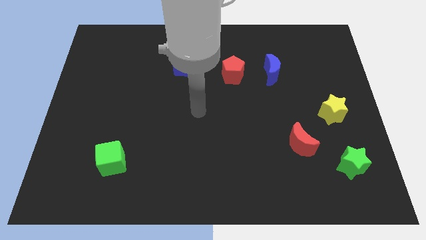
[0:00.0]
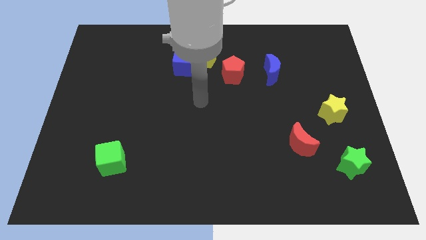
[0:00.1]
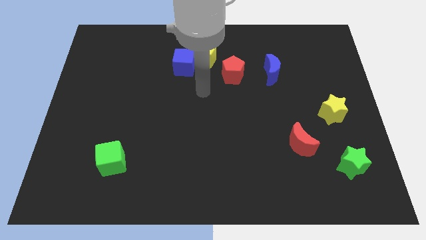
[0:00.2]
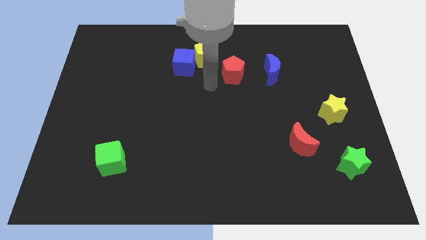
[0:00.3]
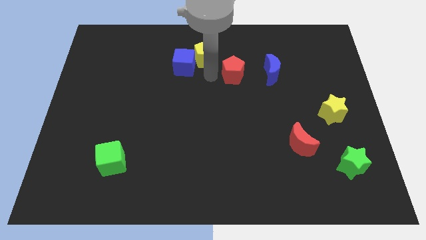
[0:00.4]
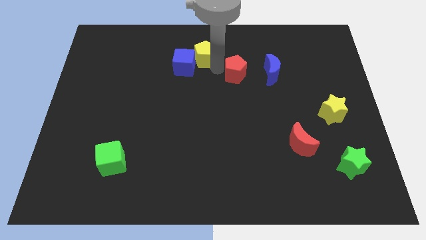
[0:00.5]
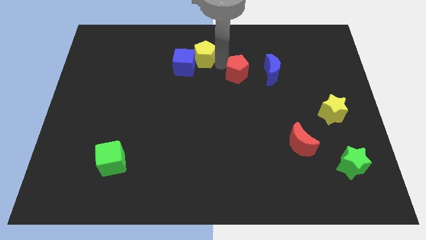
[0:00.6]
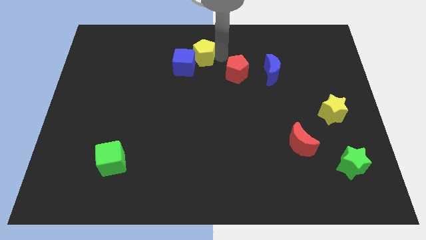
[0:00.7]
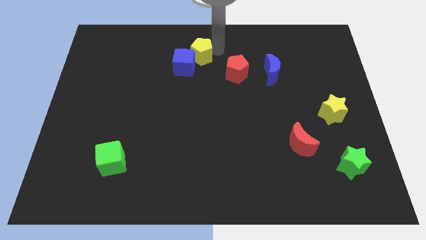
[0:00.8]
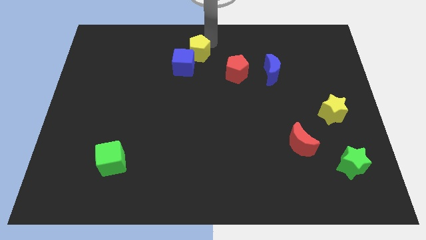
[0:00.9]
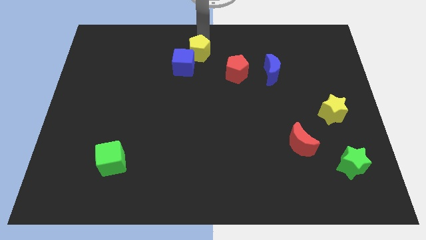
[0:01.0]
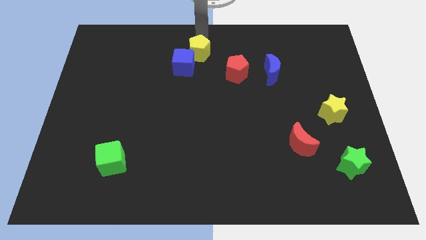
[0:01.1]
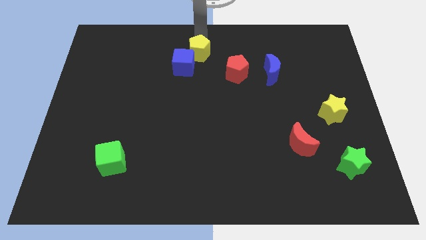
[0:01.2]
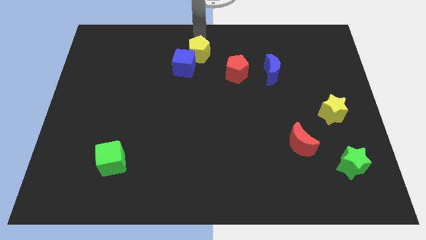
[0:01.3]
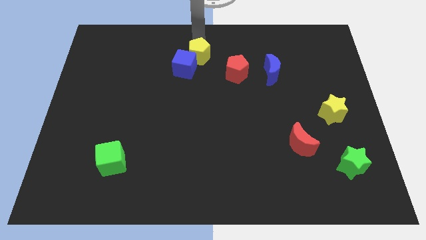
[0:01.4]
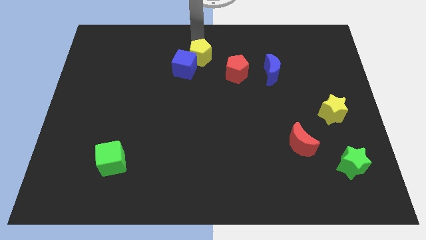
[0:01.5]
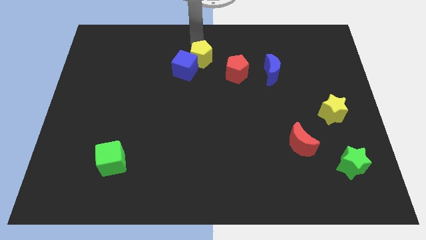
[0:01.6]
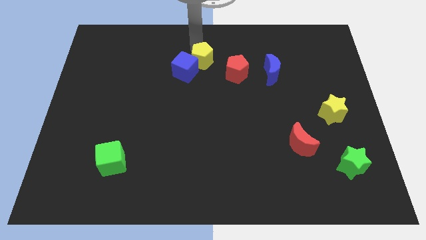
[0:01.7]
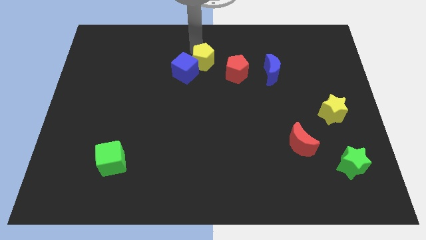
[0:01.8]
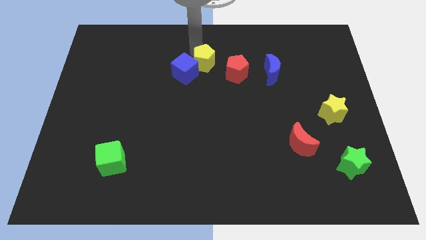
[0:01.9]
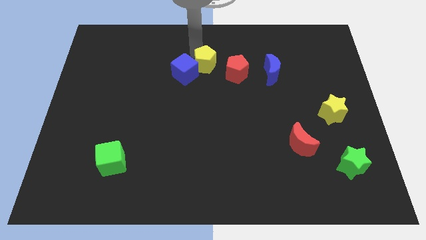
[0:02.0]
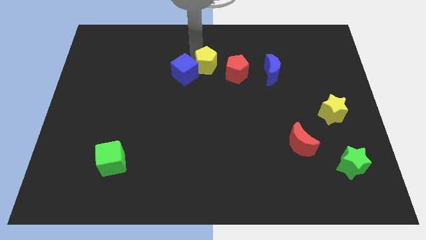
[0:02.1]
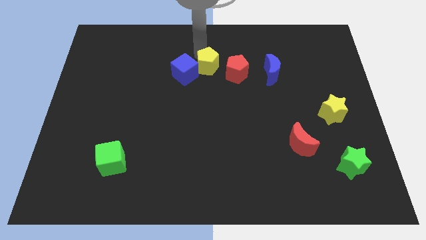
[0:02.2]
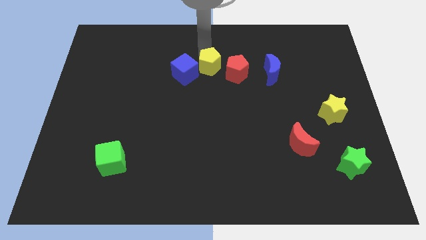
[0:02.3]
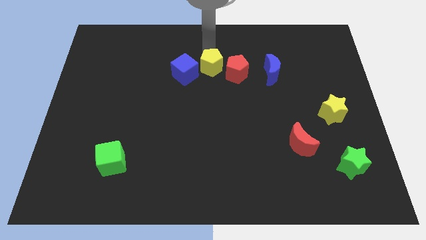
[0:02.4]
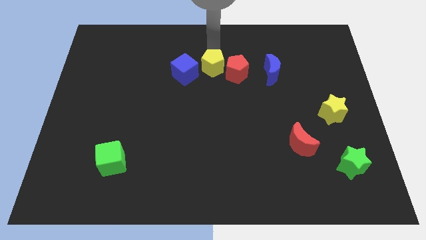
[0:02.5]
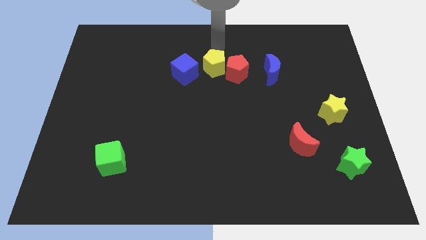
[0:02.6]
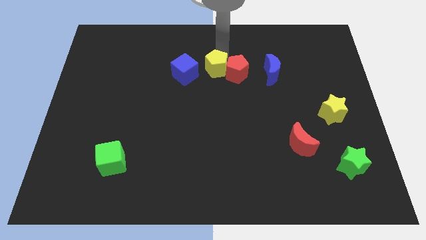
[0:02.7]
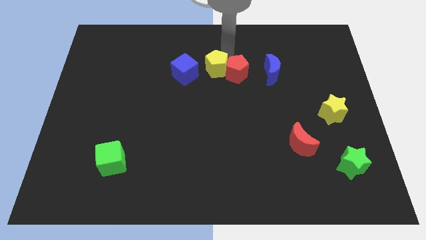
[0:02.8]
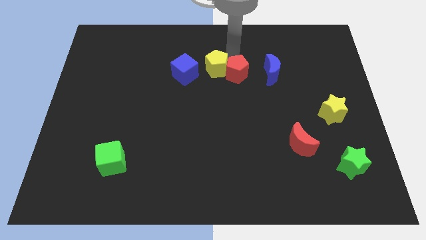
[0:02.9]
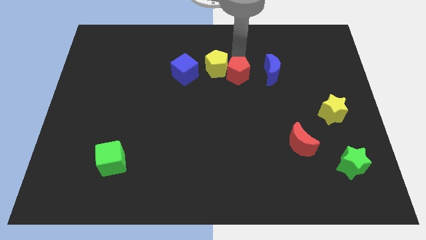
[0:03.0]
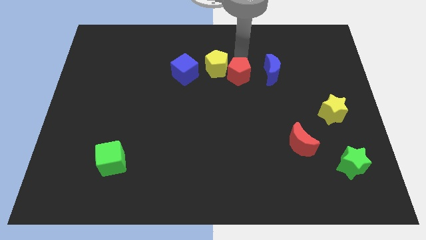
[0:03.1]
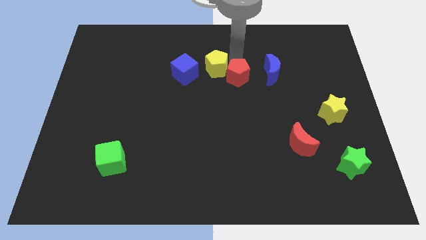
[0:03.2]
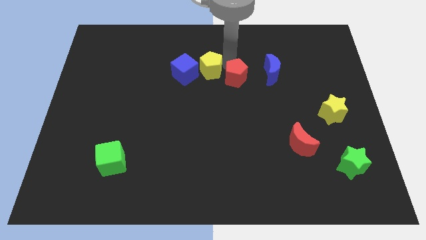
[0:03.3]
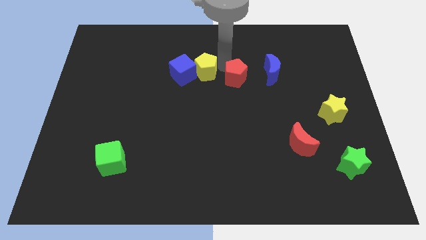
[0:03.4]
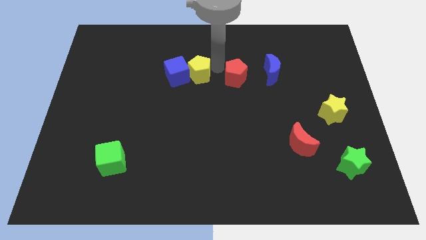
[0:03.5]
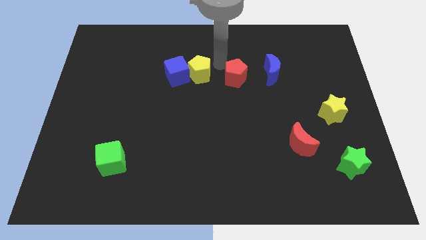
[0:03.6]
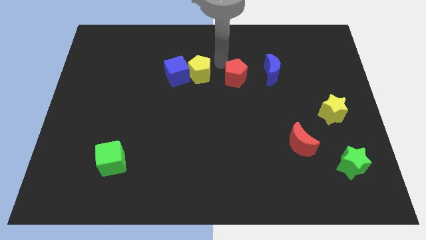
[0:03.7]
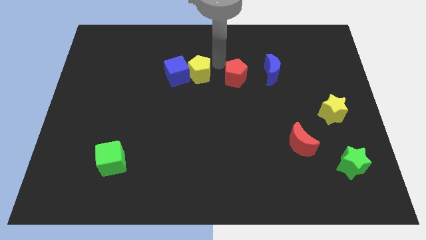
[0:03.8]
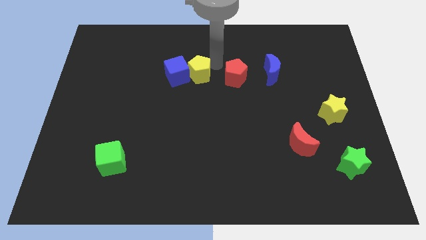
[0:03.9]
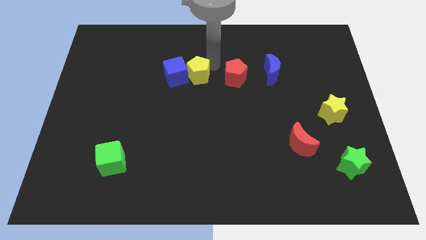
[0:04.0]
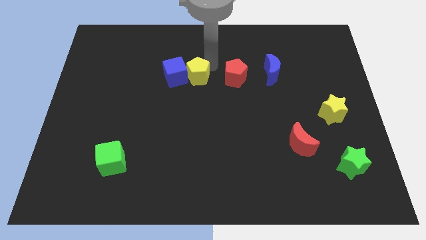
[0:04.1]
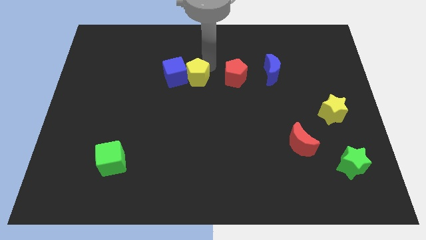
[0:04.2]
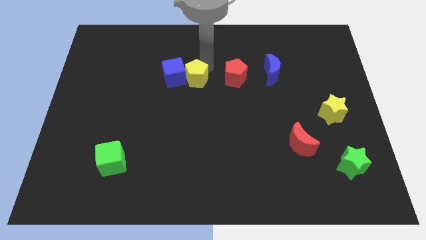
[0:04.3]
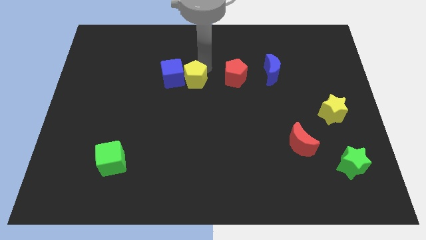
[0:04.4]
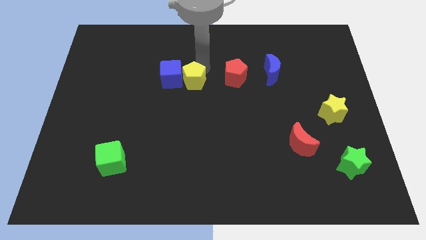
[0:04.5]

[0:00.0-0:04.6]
slightly slide the yellow pentagon downwards and then to the left

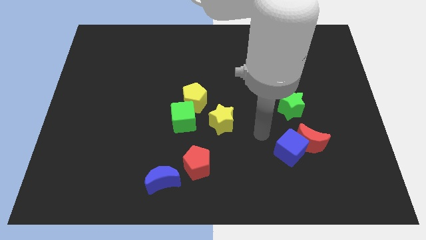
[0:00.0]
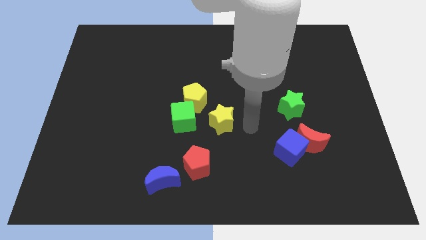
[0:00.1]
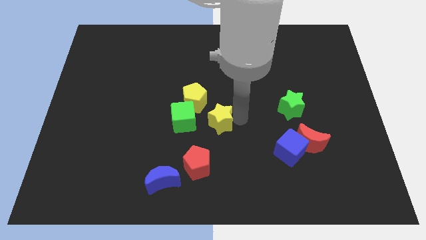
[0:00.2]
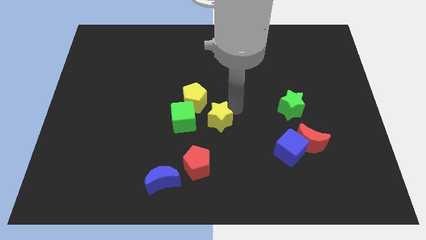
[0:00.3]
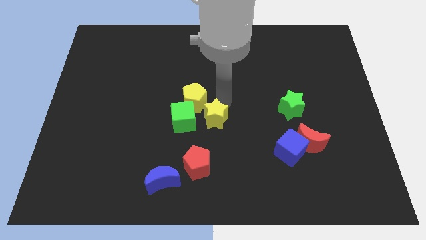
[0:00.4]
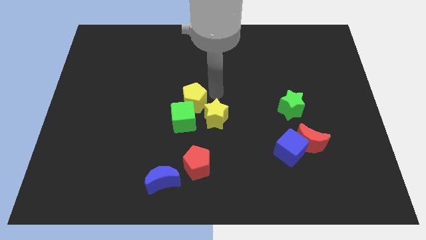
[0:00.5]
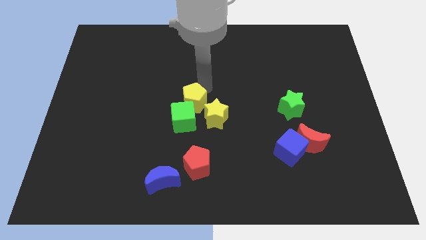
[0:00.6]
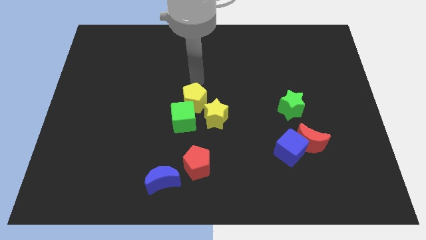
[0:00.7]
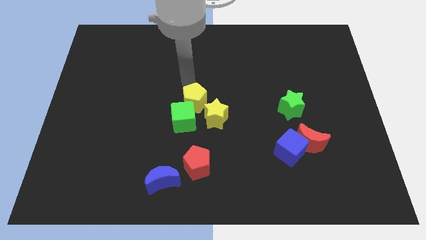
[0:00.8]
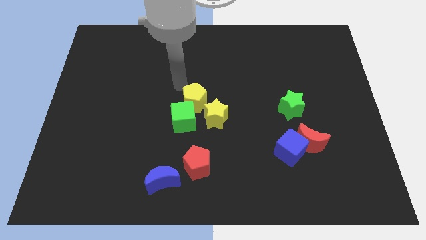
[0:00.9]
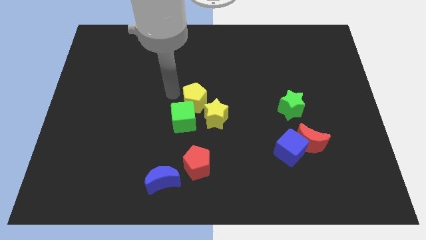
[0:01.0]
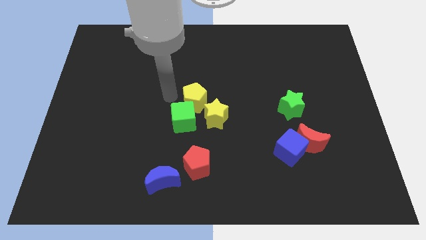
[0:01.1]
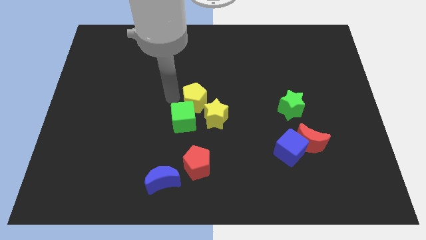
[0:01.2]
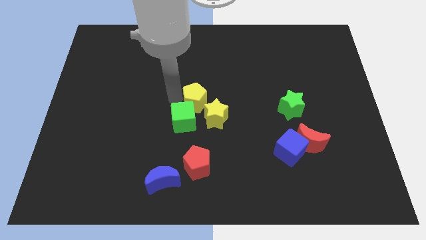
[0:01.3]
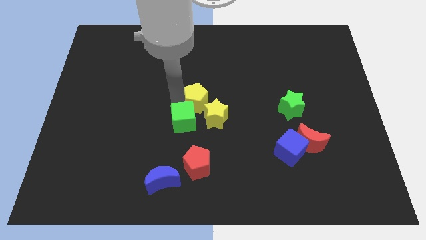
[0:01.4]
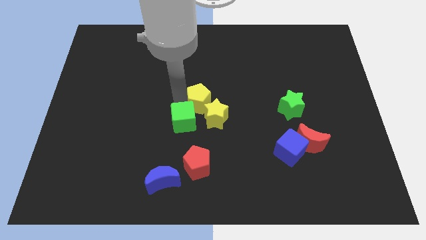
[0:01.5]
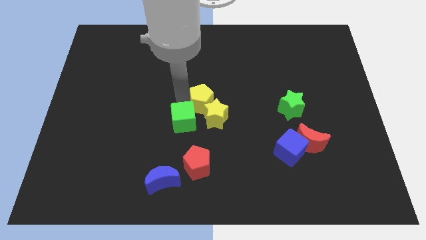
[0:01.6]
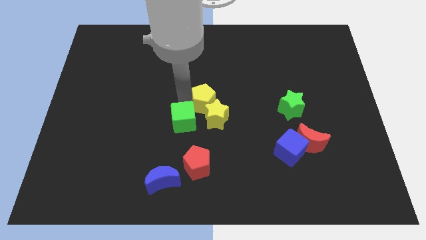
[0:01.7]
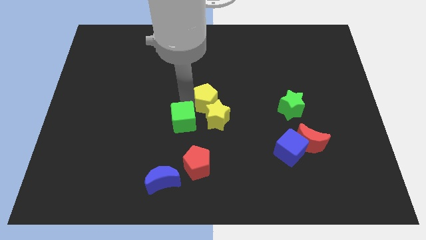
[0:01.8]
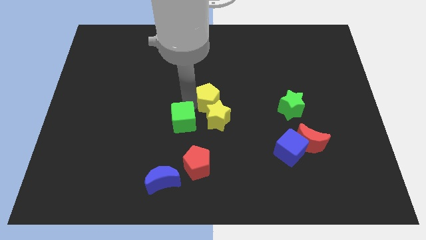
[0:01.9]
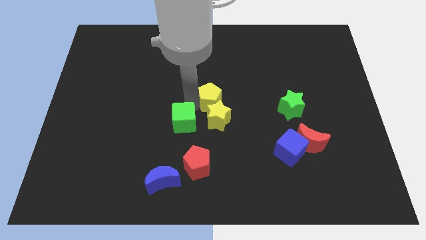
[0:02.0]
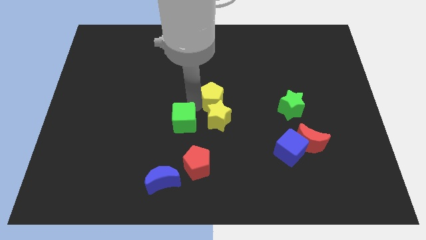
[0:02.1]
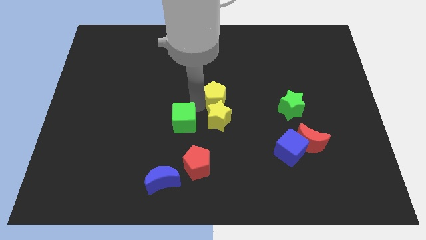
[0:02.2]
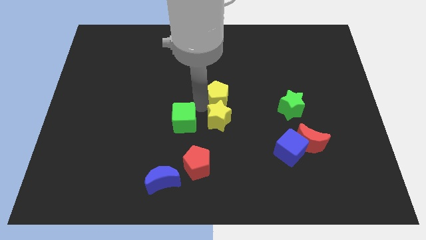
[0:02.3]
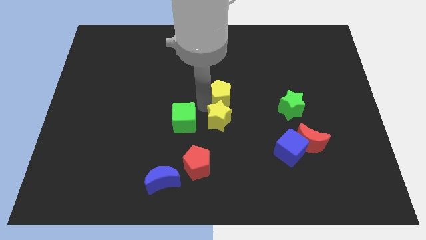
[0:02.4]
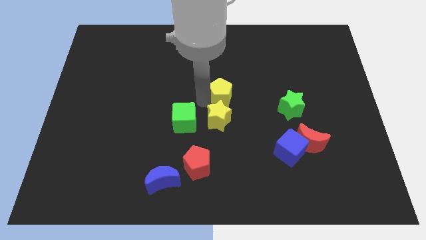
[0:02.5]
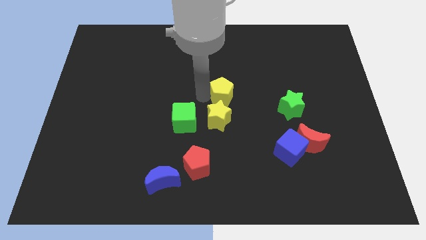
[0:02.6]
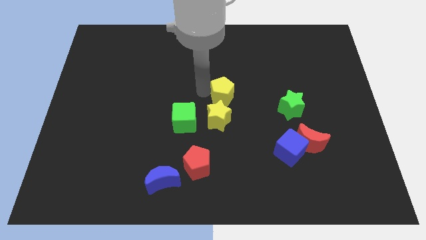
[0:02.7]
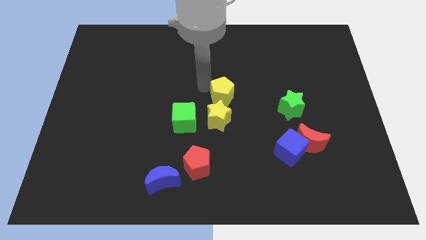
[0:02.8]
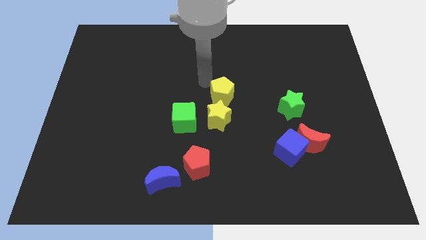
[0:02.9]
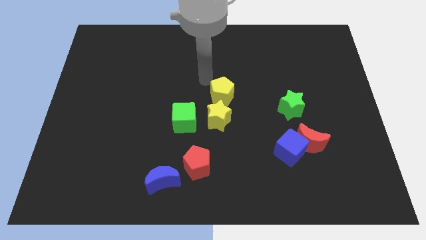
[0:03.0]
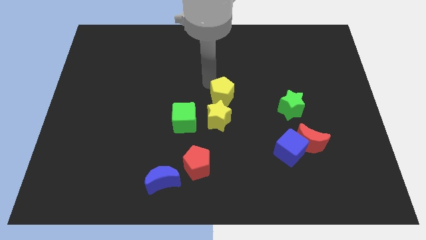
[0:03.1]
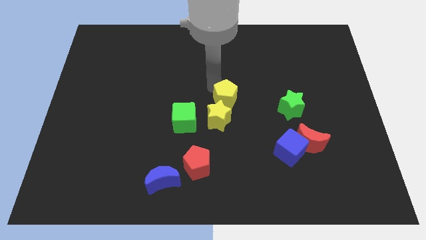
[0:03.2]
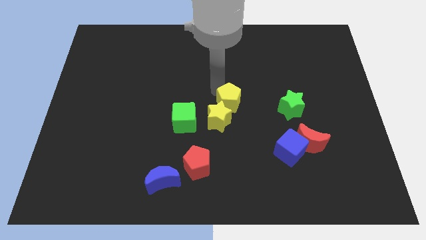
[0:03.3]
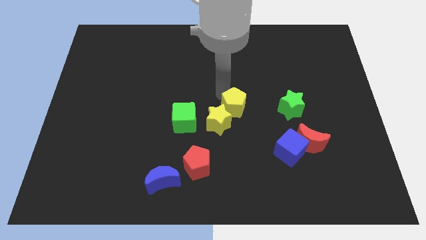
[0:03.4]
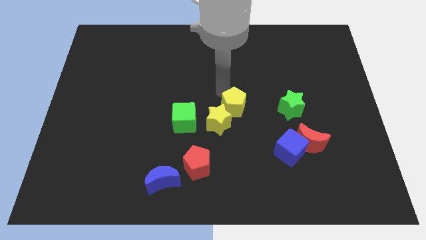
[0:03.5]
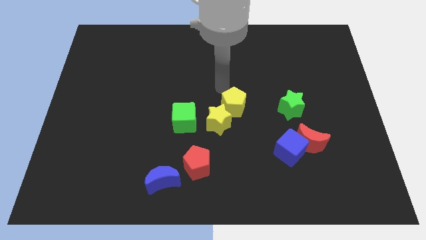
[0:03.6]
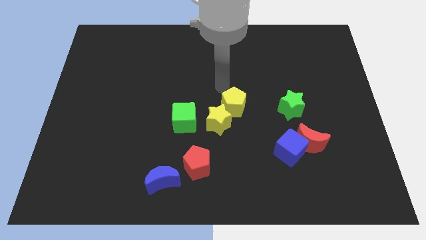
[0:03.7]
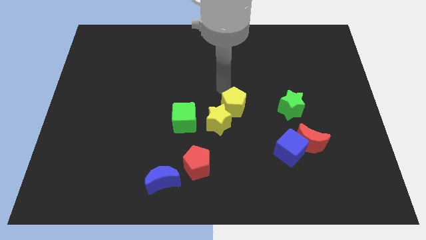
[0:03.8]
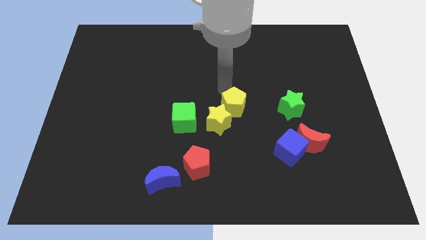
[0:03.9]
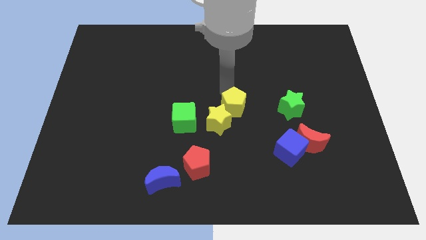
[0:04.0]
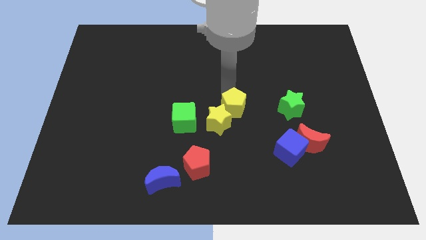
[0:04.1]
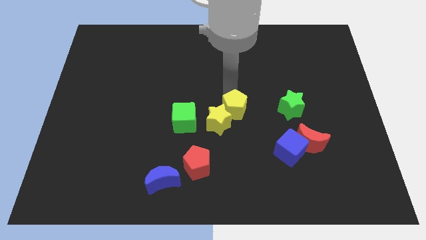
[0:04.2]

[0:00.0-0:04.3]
slide the yellow pentagon slightly down and right
